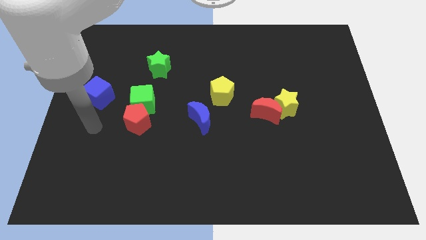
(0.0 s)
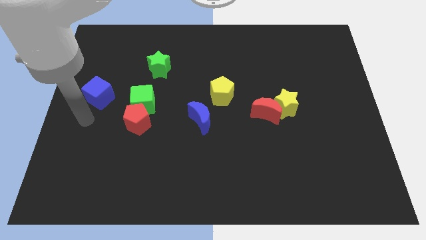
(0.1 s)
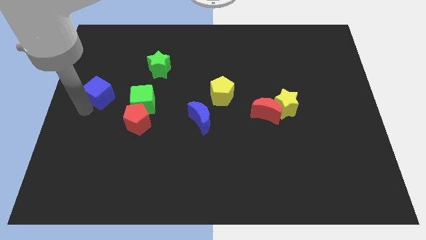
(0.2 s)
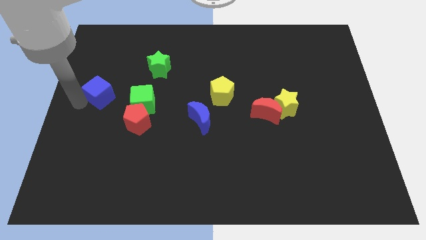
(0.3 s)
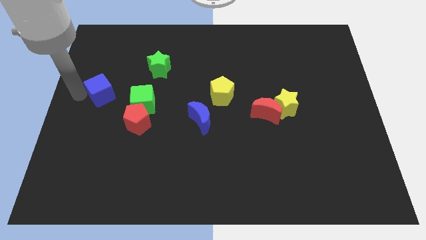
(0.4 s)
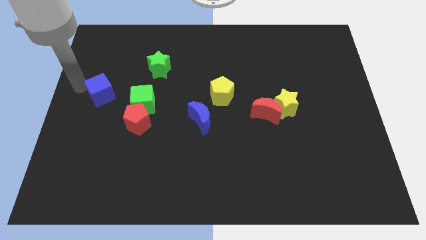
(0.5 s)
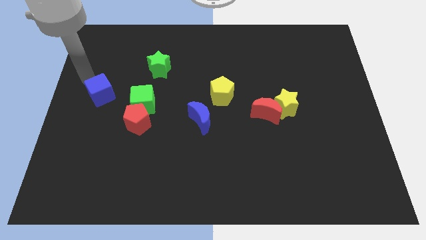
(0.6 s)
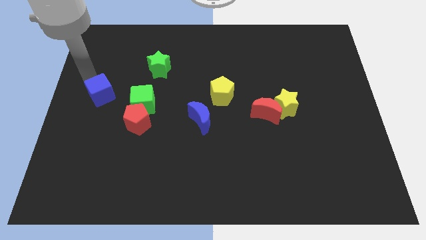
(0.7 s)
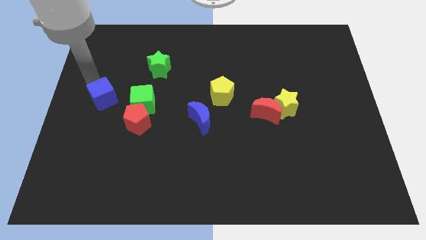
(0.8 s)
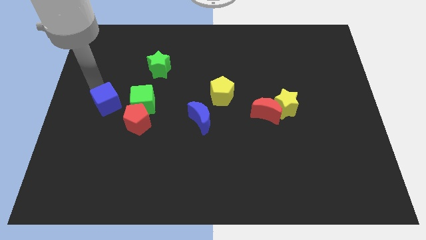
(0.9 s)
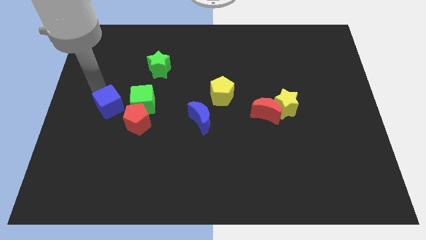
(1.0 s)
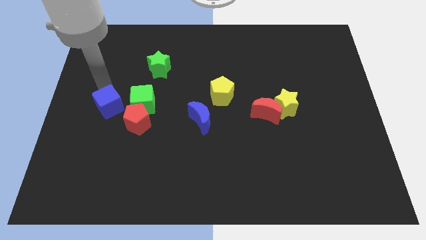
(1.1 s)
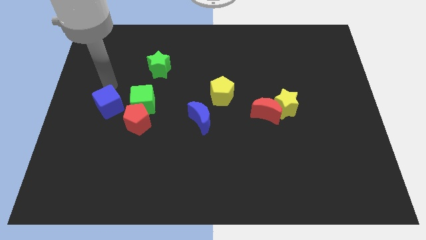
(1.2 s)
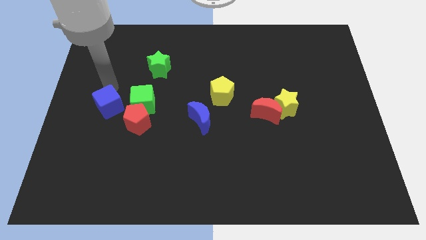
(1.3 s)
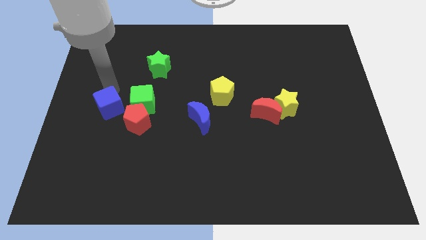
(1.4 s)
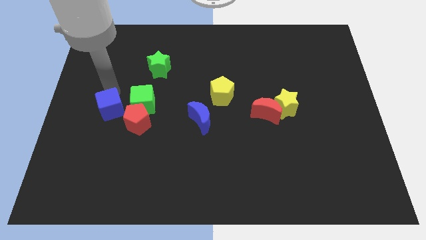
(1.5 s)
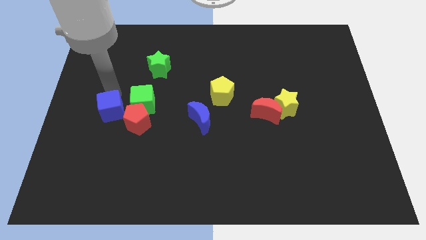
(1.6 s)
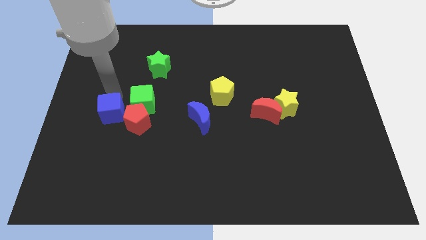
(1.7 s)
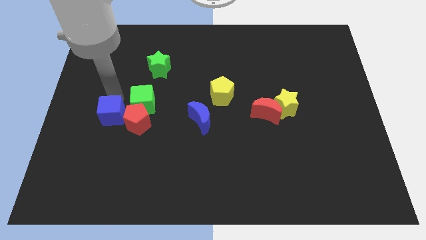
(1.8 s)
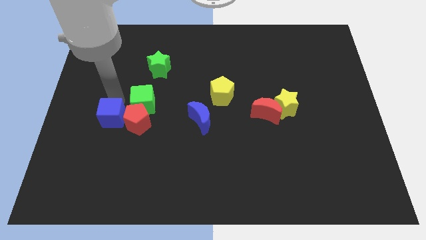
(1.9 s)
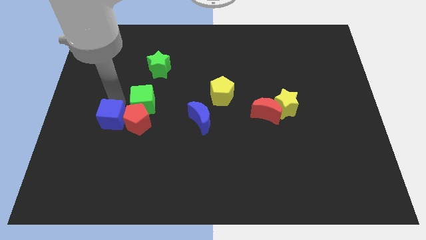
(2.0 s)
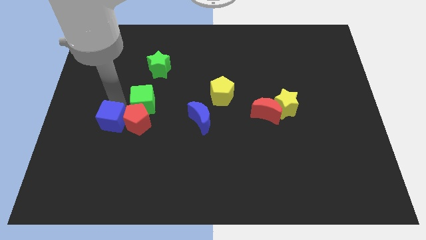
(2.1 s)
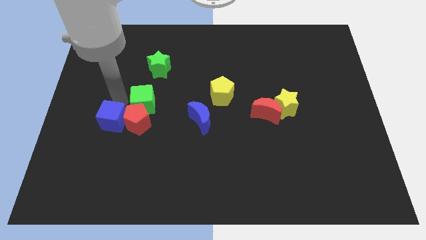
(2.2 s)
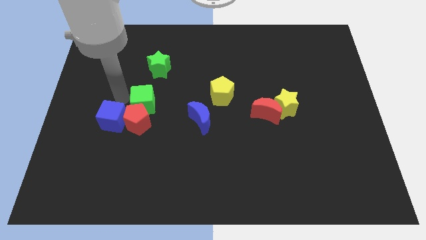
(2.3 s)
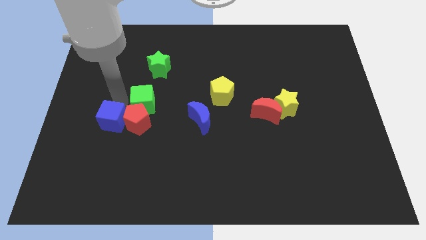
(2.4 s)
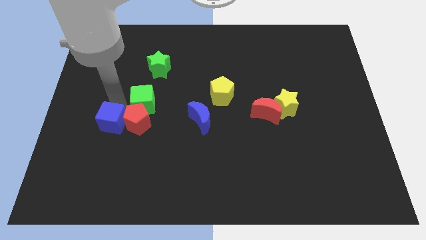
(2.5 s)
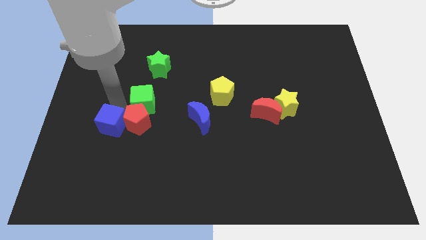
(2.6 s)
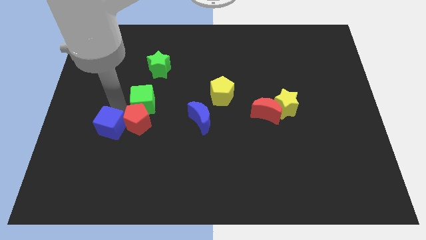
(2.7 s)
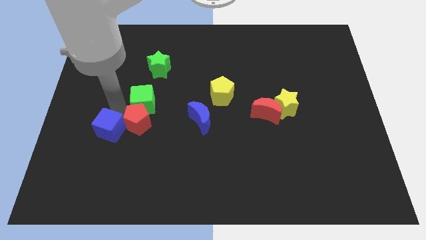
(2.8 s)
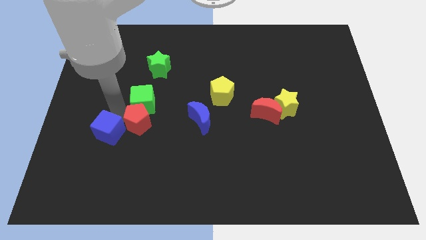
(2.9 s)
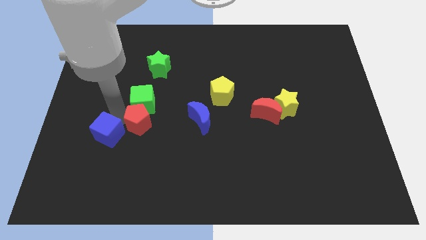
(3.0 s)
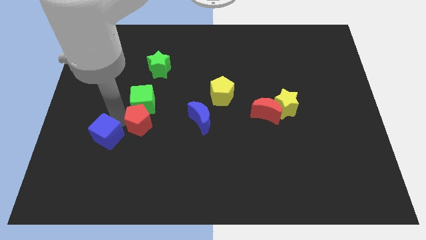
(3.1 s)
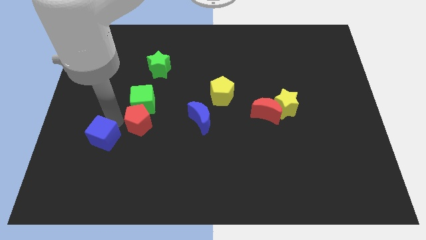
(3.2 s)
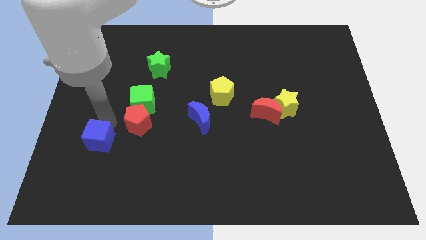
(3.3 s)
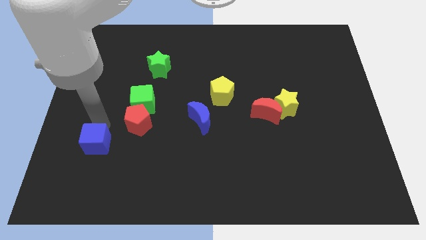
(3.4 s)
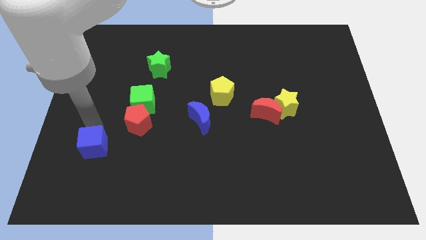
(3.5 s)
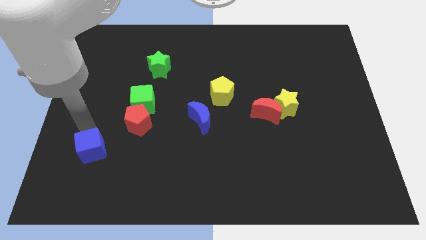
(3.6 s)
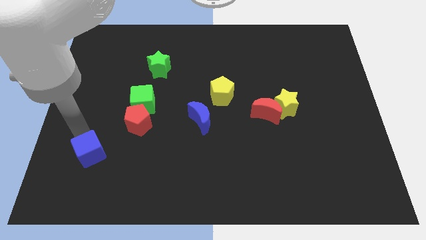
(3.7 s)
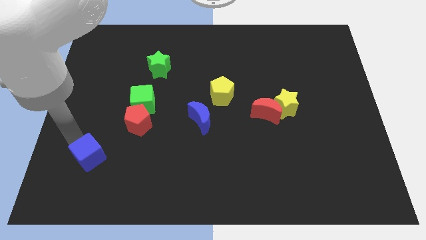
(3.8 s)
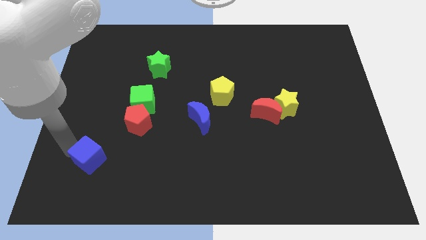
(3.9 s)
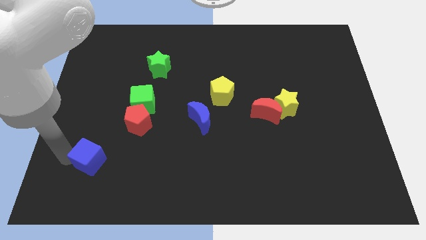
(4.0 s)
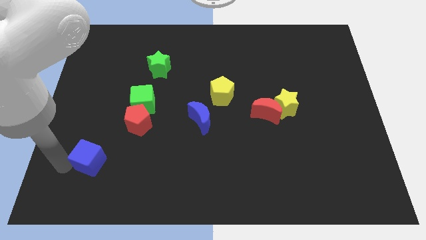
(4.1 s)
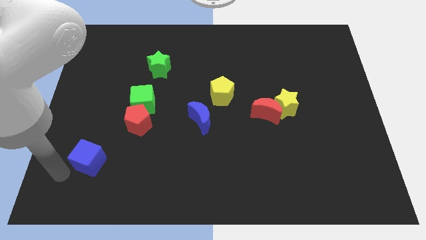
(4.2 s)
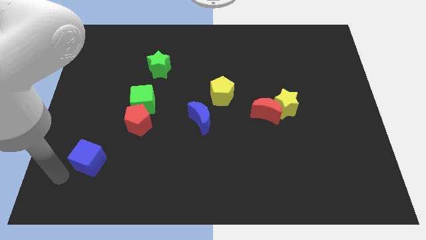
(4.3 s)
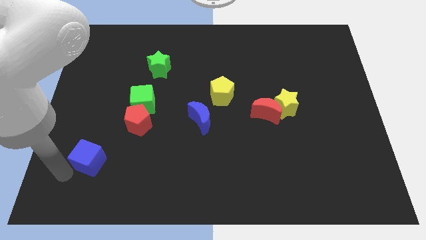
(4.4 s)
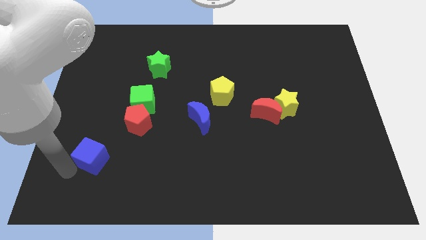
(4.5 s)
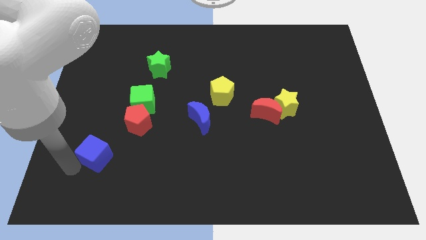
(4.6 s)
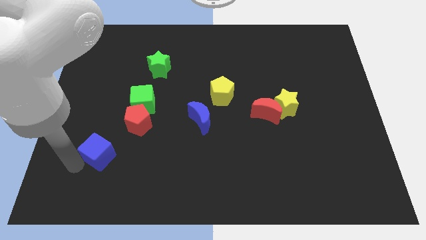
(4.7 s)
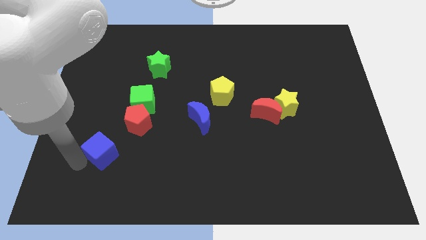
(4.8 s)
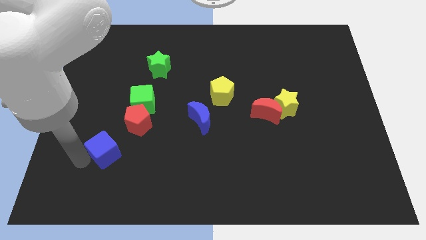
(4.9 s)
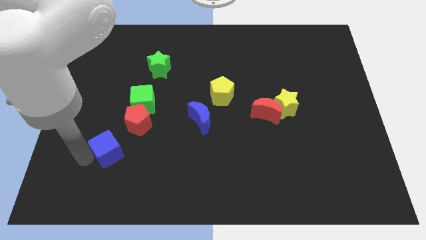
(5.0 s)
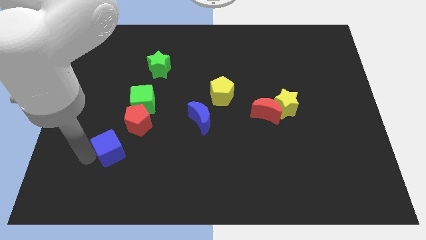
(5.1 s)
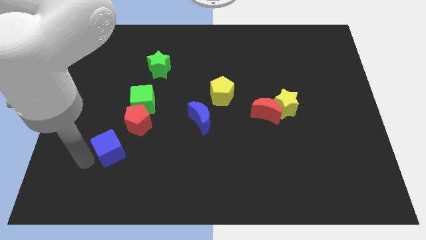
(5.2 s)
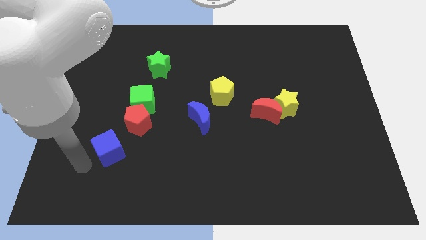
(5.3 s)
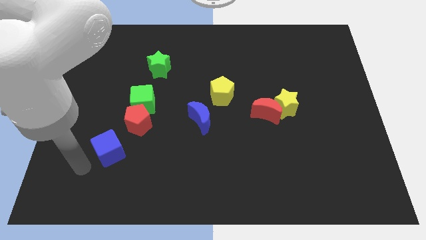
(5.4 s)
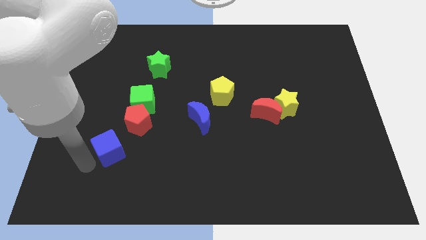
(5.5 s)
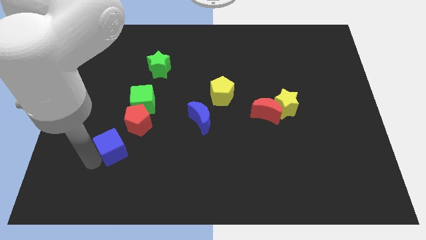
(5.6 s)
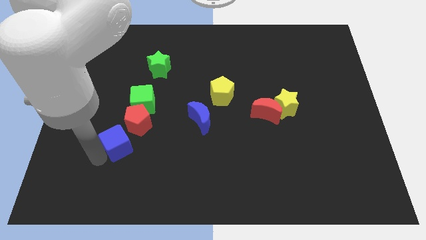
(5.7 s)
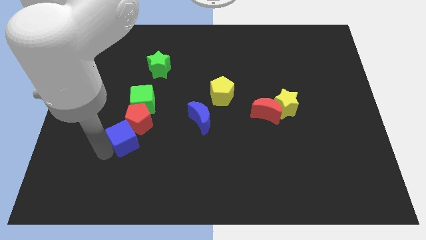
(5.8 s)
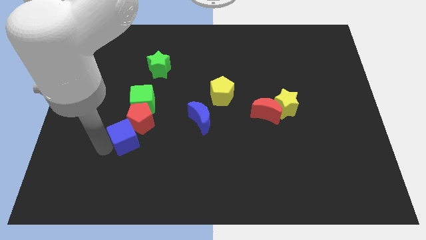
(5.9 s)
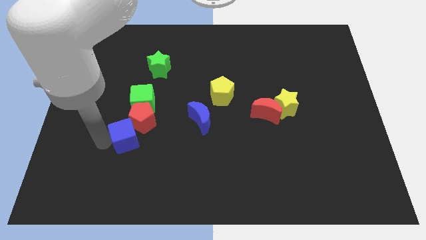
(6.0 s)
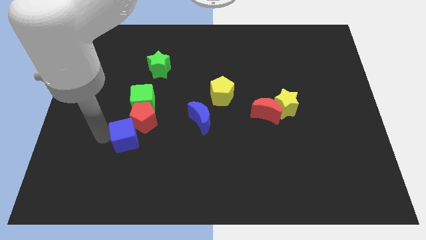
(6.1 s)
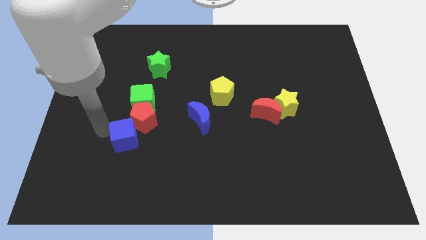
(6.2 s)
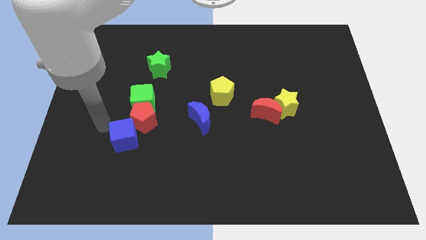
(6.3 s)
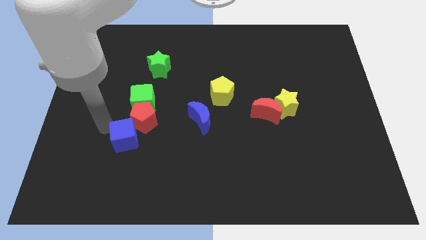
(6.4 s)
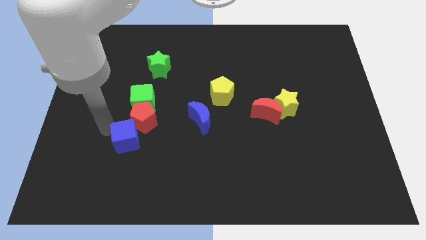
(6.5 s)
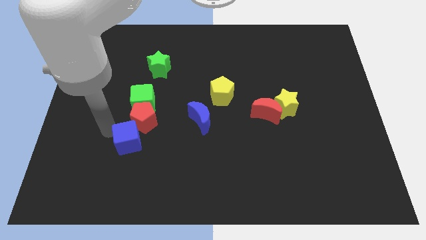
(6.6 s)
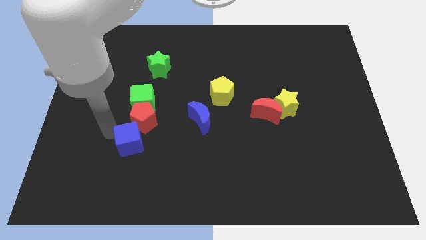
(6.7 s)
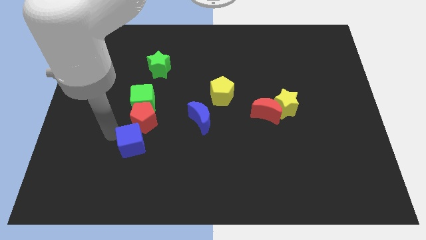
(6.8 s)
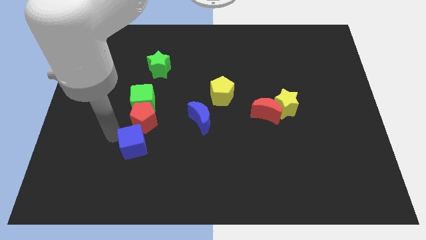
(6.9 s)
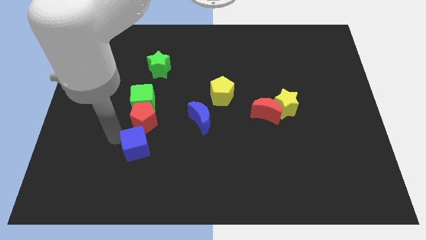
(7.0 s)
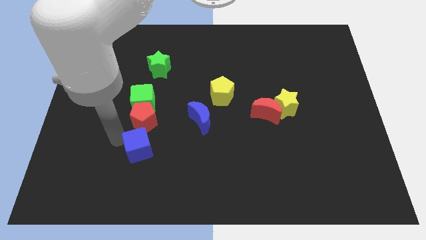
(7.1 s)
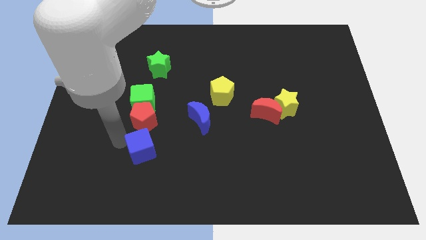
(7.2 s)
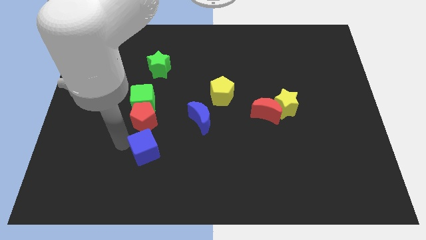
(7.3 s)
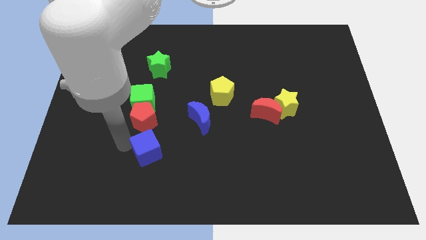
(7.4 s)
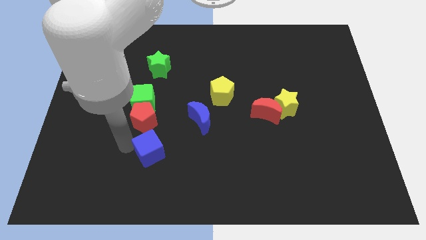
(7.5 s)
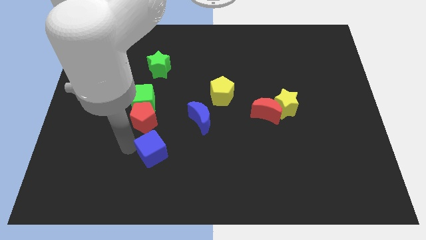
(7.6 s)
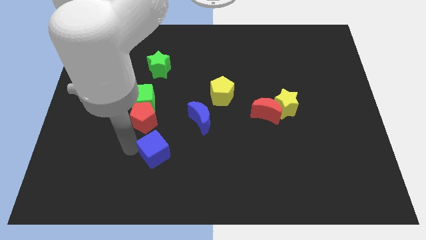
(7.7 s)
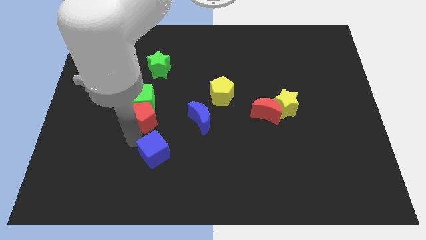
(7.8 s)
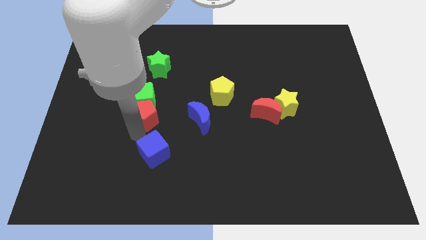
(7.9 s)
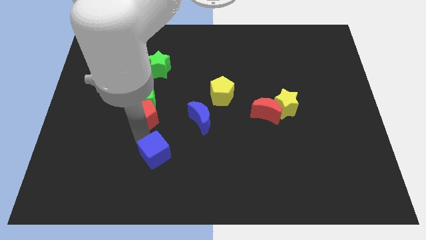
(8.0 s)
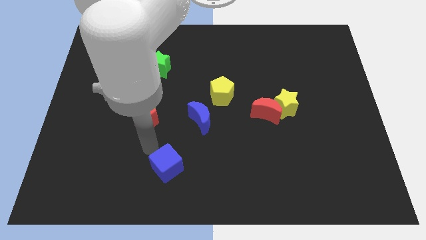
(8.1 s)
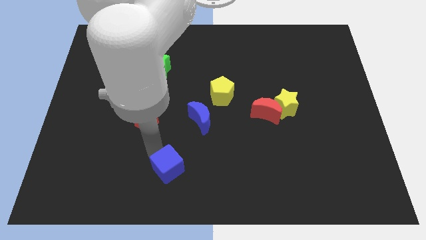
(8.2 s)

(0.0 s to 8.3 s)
put the blue cube to the bottom side
